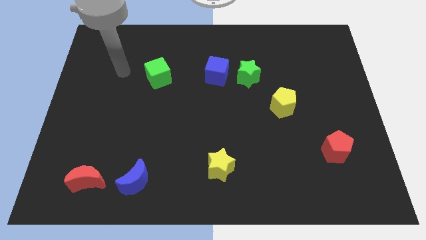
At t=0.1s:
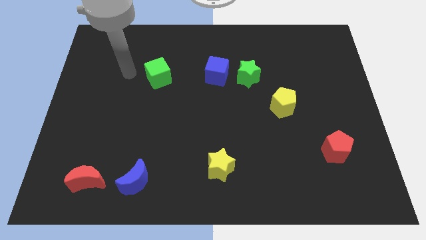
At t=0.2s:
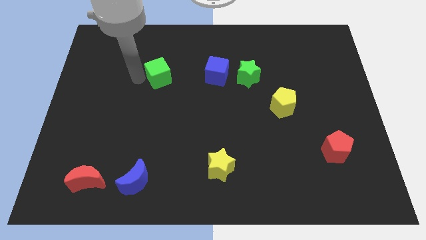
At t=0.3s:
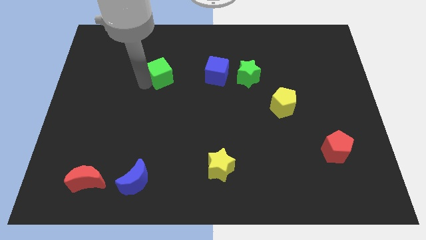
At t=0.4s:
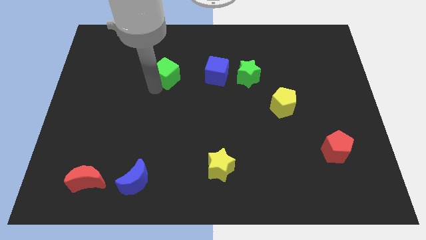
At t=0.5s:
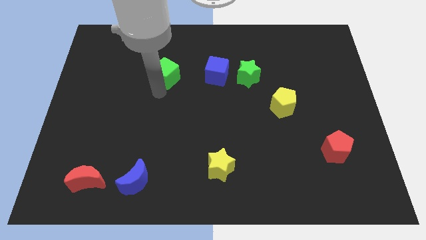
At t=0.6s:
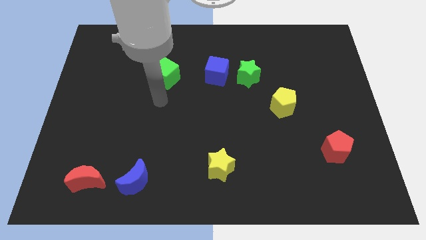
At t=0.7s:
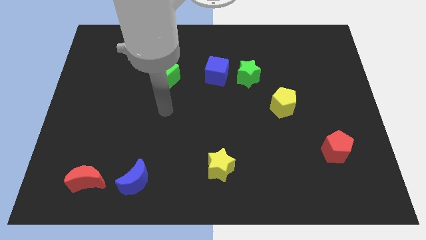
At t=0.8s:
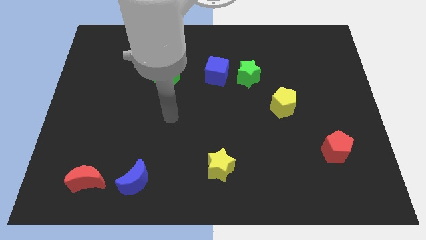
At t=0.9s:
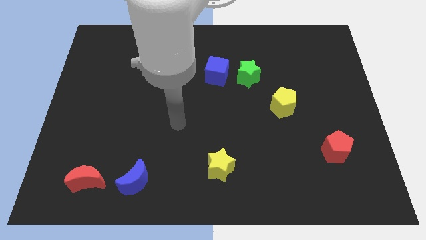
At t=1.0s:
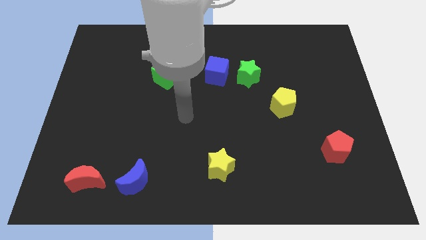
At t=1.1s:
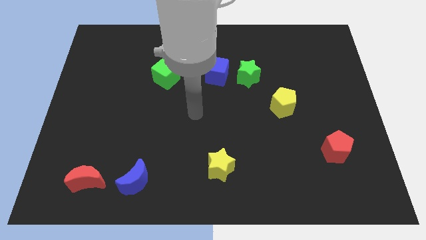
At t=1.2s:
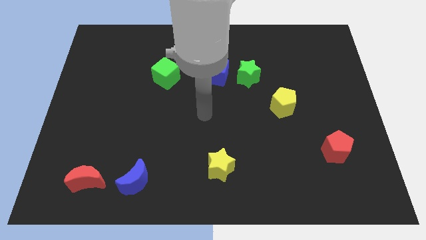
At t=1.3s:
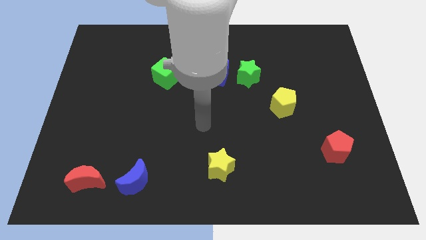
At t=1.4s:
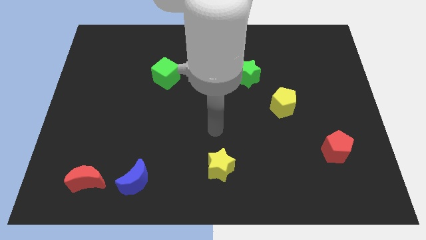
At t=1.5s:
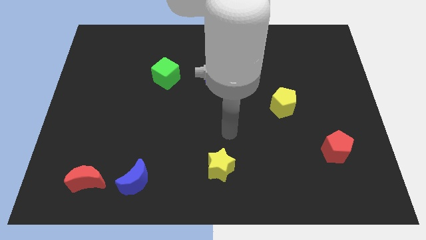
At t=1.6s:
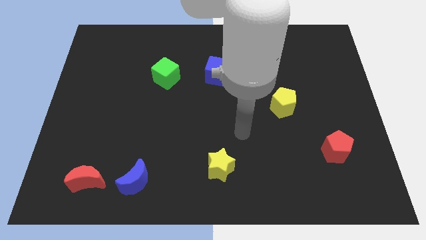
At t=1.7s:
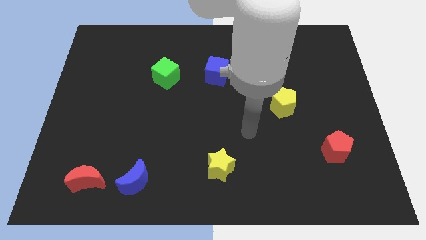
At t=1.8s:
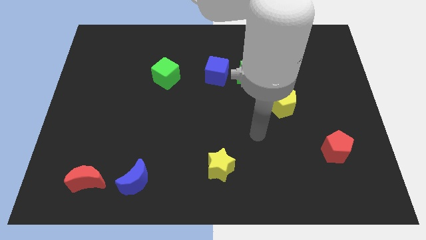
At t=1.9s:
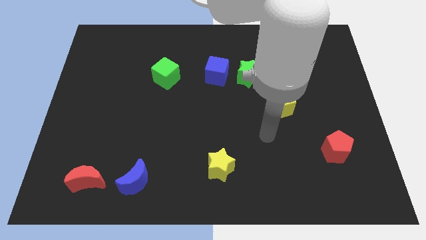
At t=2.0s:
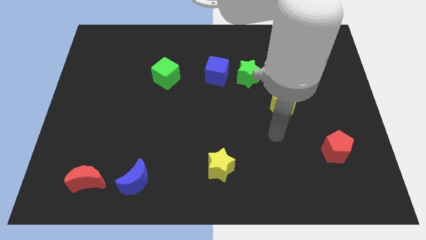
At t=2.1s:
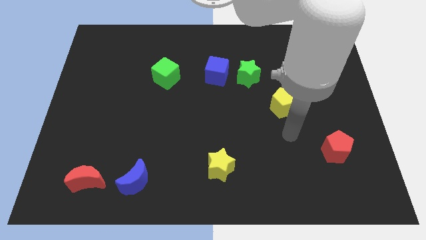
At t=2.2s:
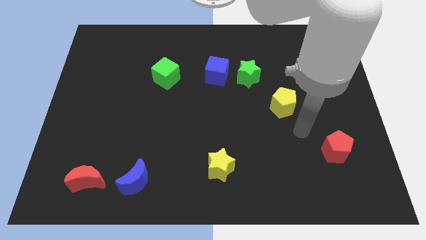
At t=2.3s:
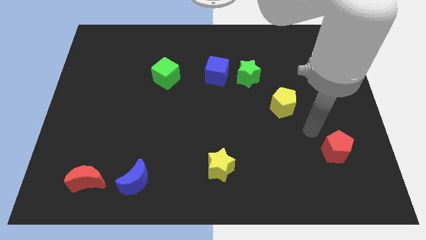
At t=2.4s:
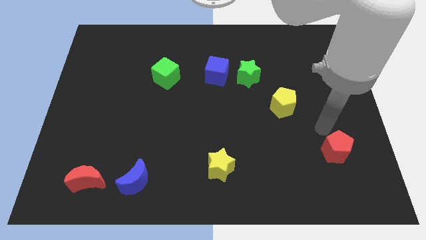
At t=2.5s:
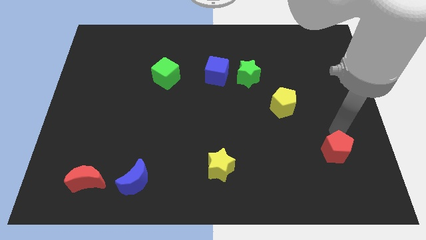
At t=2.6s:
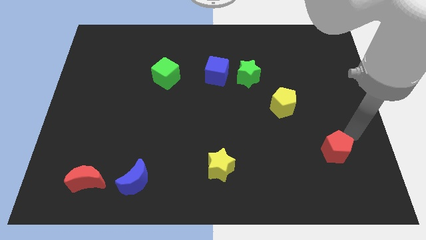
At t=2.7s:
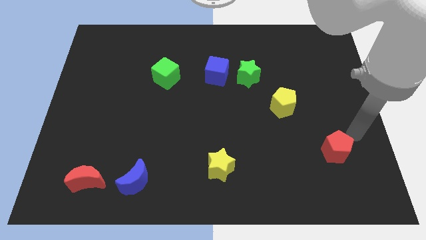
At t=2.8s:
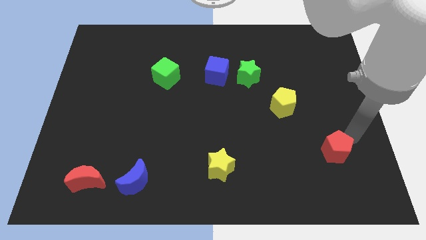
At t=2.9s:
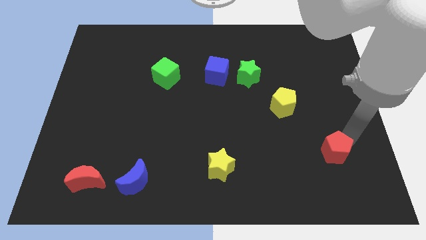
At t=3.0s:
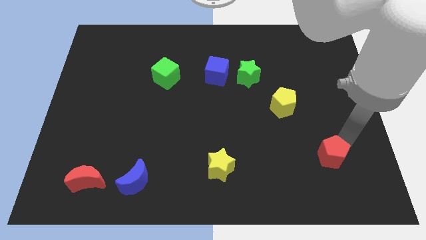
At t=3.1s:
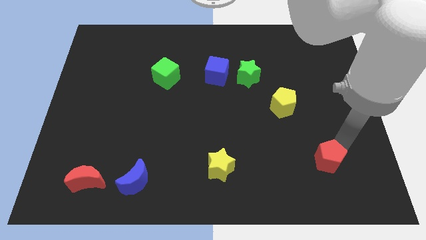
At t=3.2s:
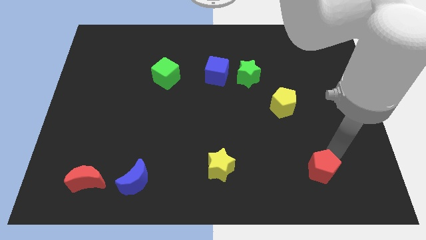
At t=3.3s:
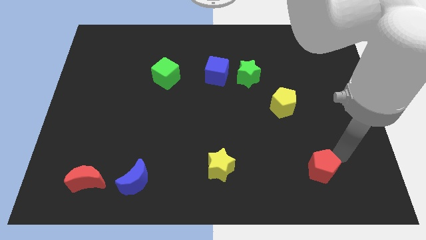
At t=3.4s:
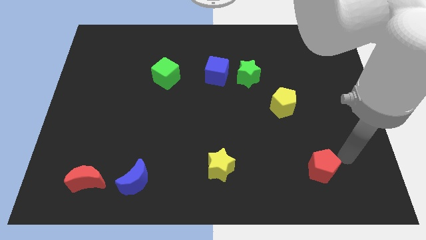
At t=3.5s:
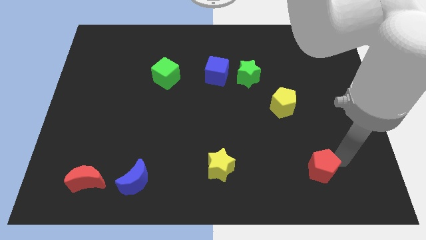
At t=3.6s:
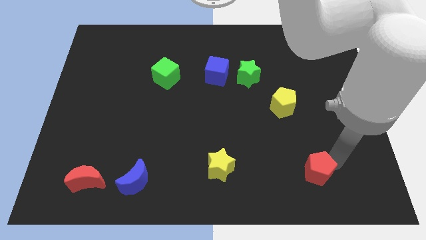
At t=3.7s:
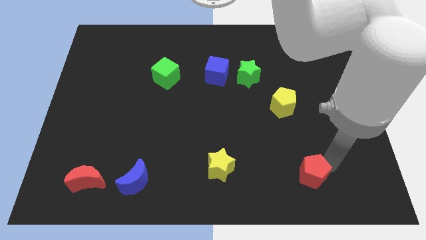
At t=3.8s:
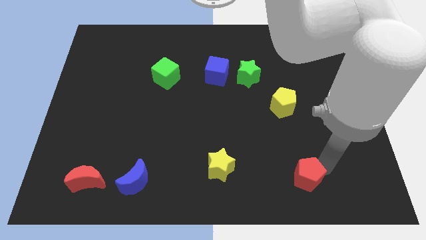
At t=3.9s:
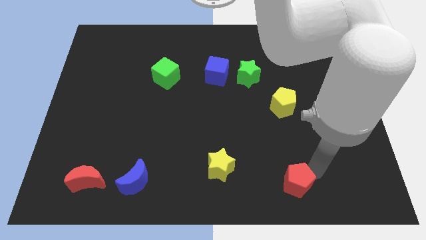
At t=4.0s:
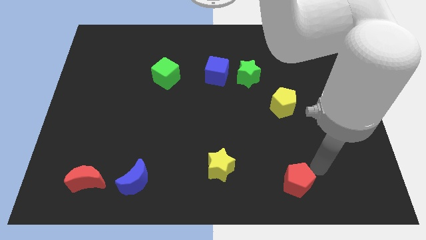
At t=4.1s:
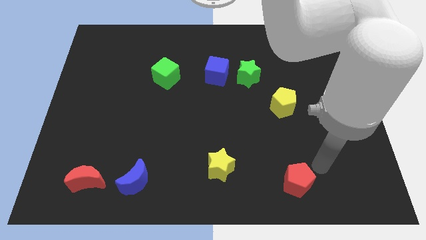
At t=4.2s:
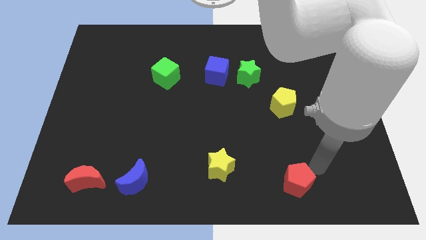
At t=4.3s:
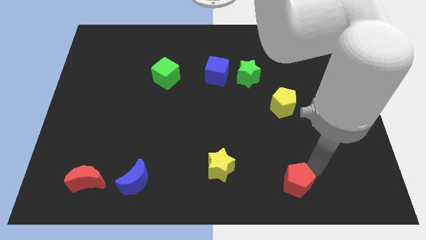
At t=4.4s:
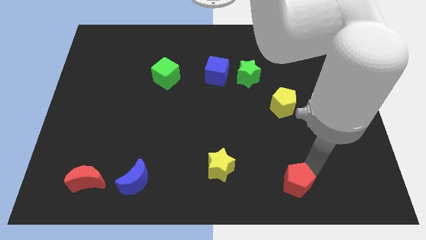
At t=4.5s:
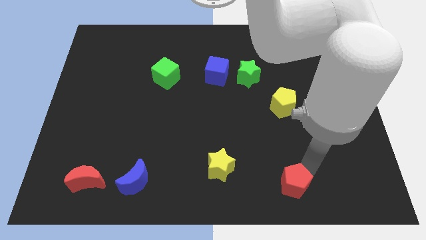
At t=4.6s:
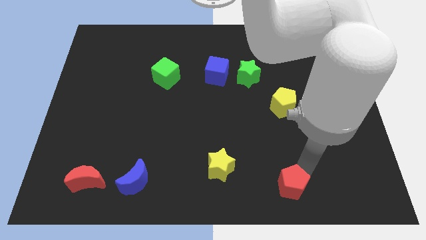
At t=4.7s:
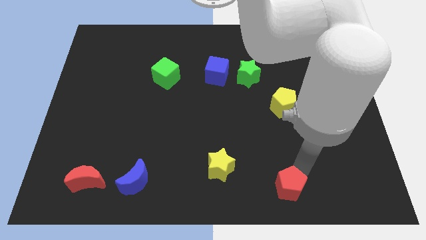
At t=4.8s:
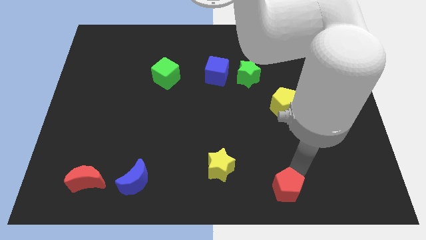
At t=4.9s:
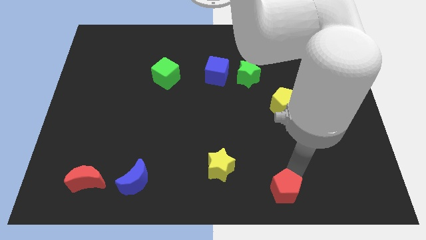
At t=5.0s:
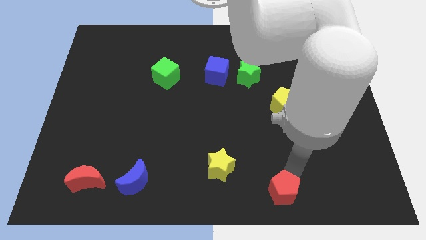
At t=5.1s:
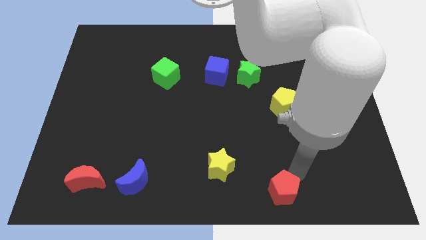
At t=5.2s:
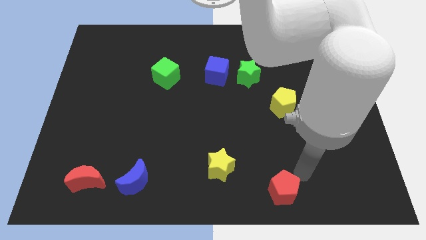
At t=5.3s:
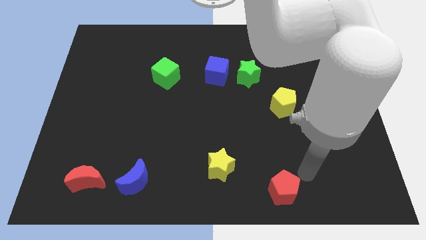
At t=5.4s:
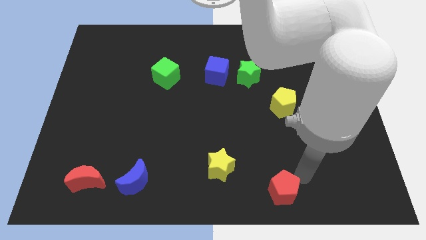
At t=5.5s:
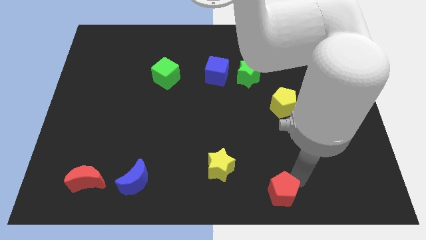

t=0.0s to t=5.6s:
put the red pentagon to the bottom side

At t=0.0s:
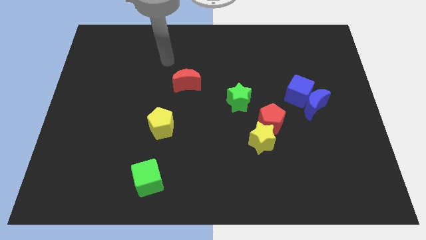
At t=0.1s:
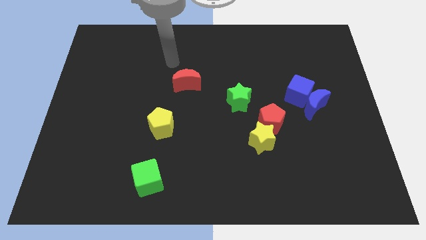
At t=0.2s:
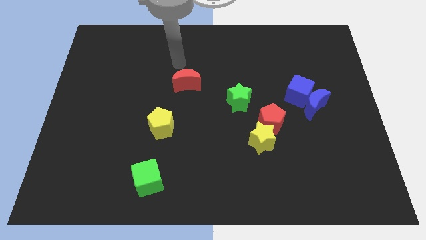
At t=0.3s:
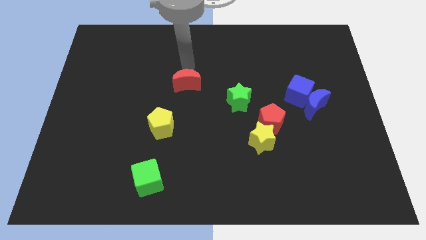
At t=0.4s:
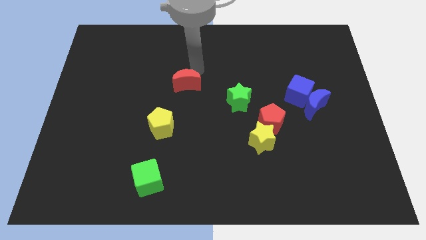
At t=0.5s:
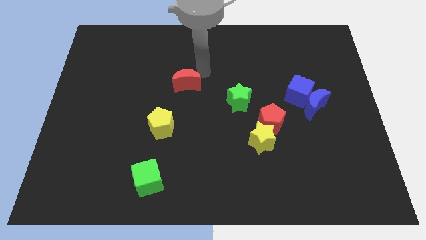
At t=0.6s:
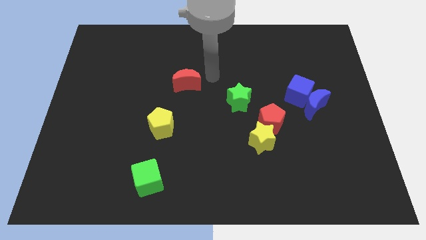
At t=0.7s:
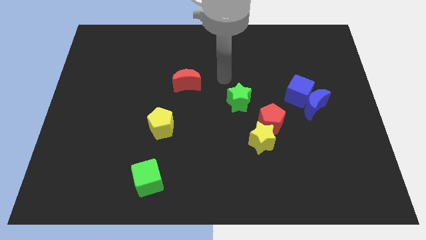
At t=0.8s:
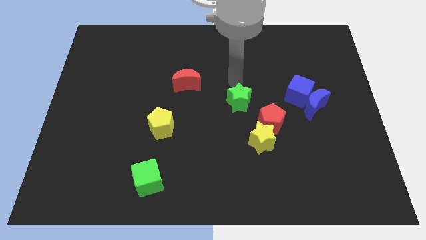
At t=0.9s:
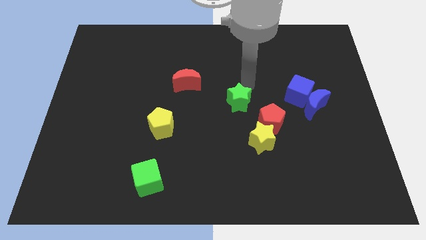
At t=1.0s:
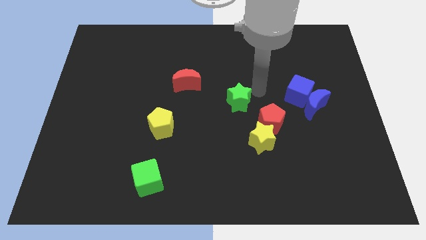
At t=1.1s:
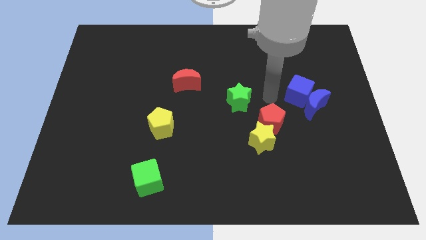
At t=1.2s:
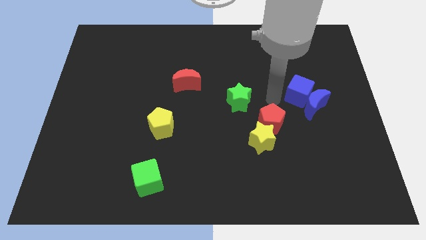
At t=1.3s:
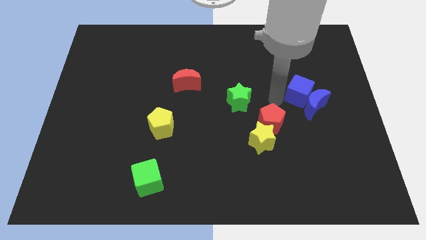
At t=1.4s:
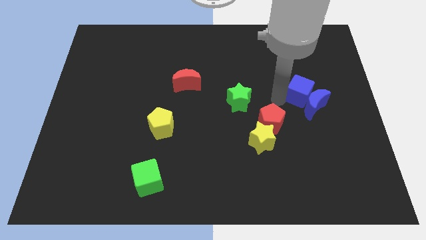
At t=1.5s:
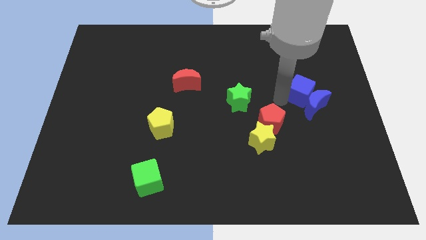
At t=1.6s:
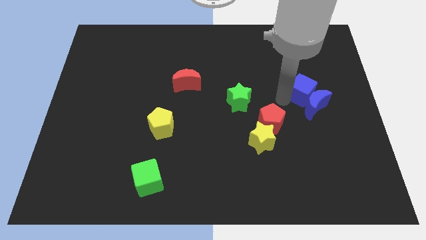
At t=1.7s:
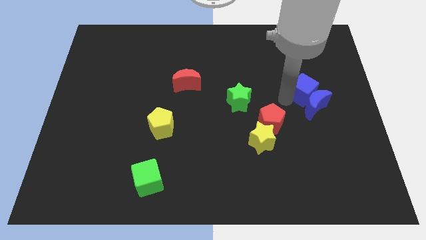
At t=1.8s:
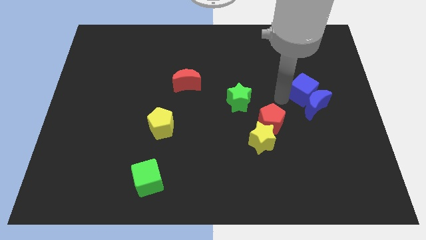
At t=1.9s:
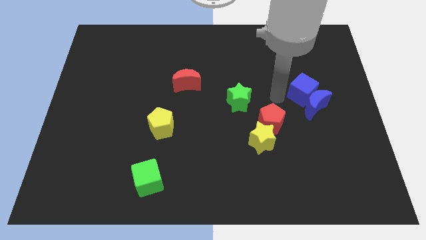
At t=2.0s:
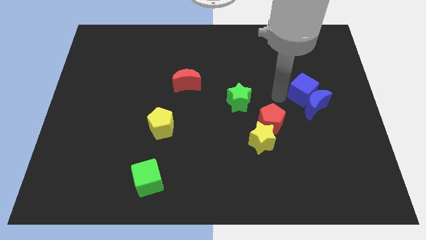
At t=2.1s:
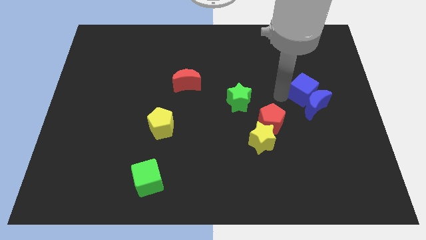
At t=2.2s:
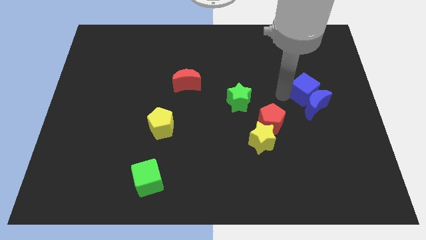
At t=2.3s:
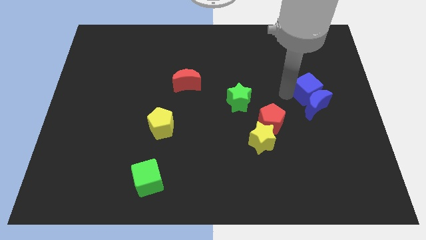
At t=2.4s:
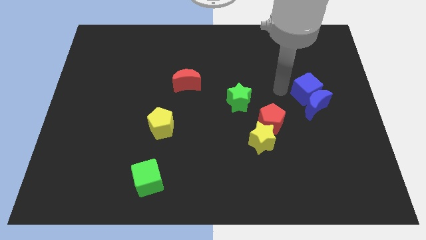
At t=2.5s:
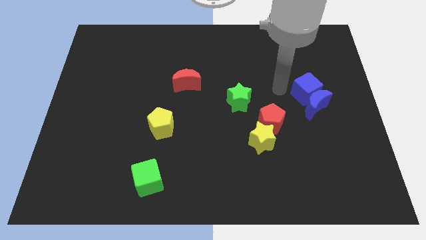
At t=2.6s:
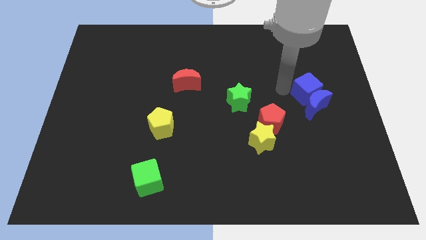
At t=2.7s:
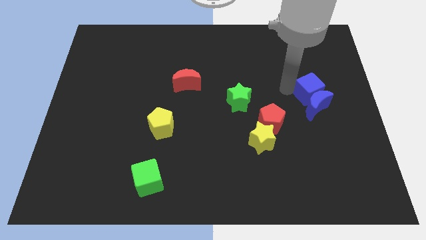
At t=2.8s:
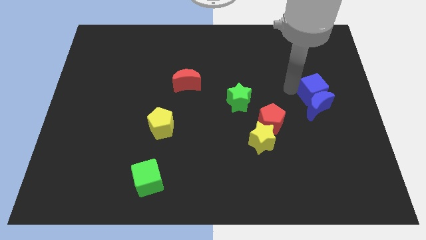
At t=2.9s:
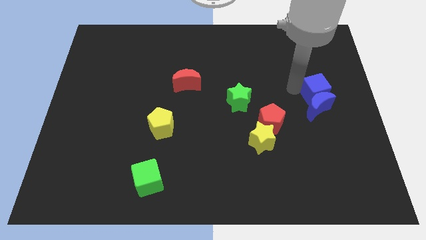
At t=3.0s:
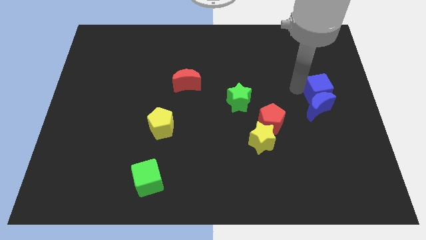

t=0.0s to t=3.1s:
push the blue cube to the center right
